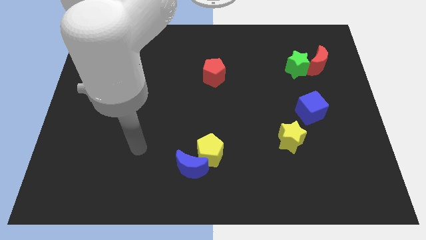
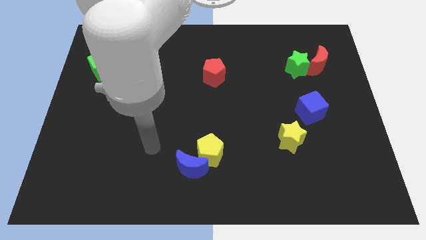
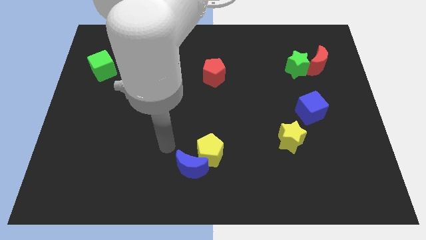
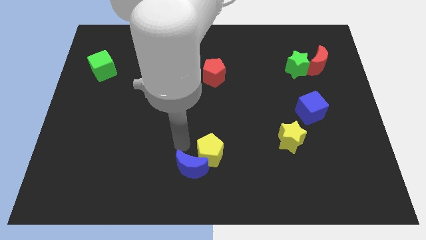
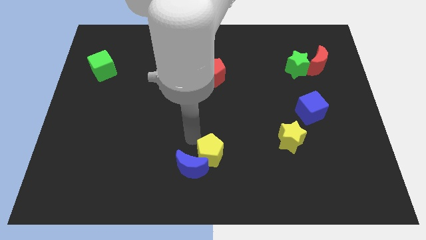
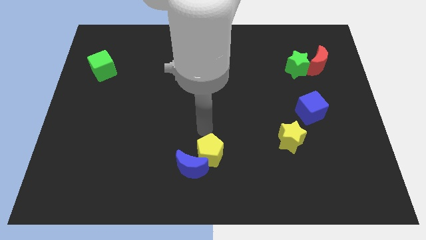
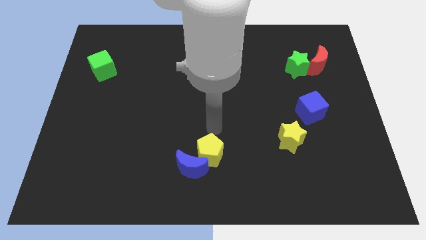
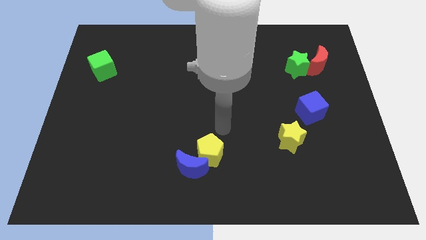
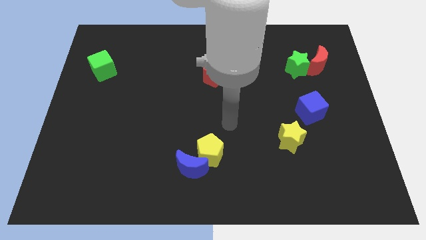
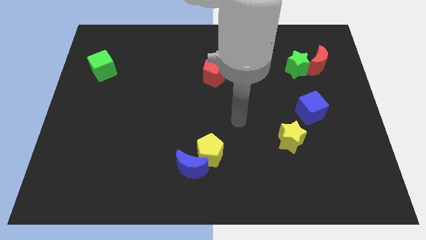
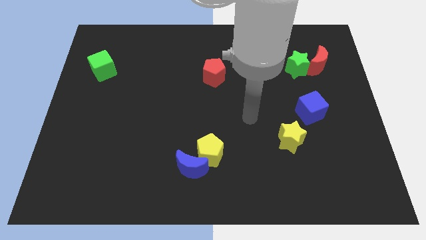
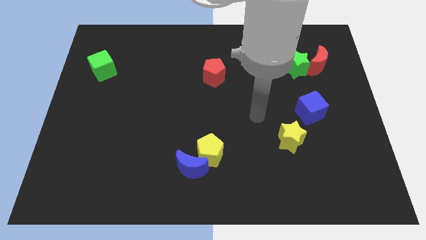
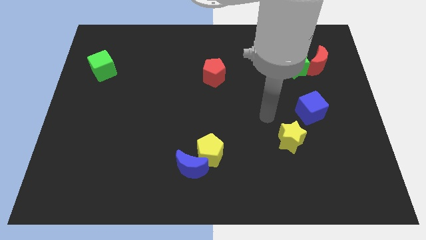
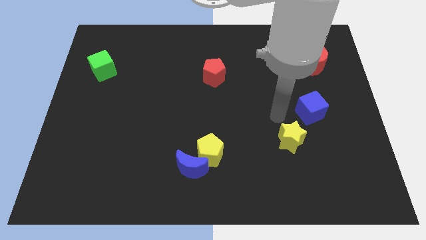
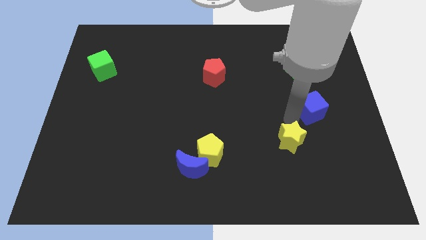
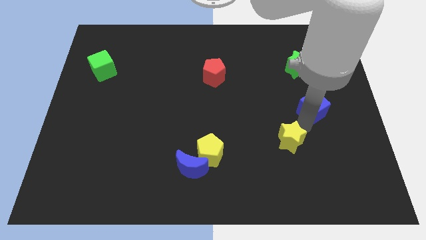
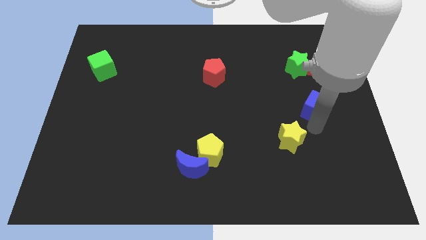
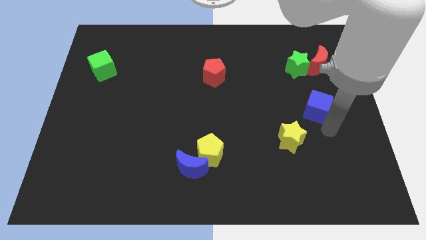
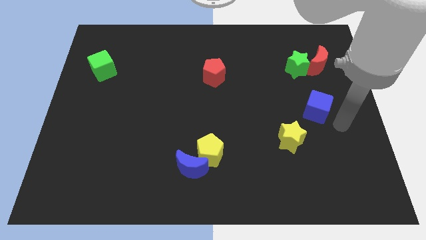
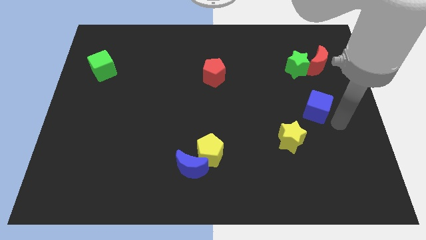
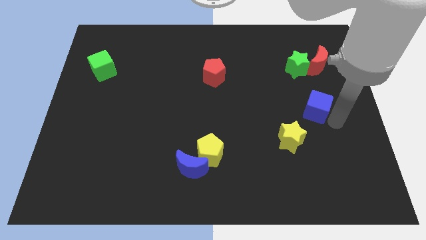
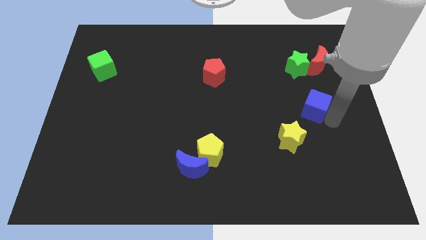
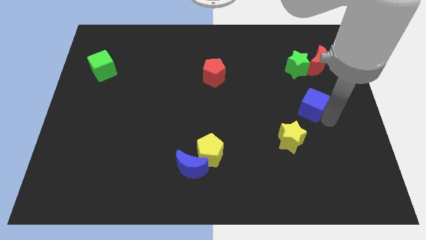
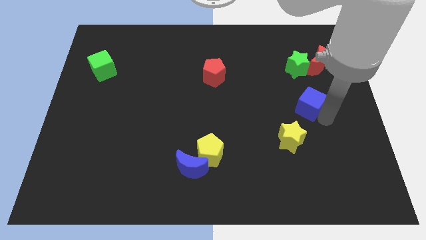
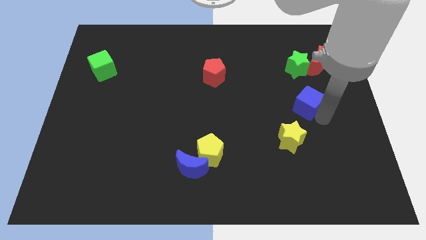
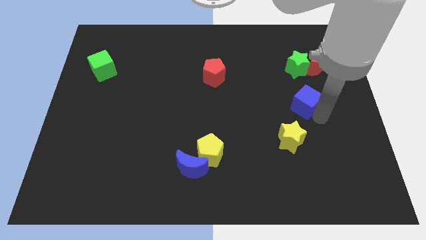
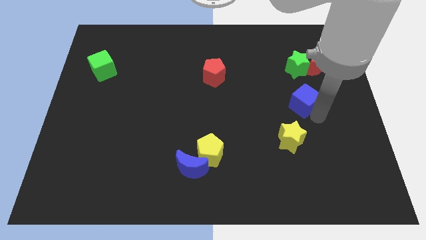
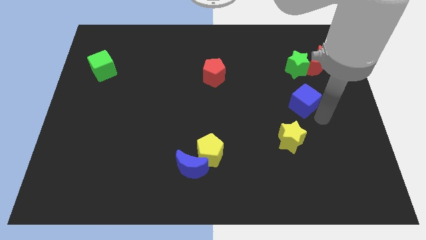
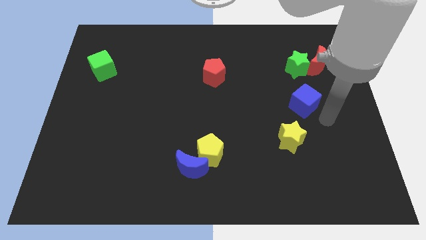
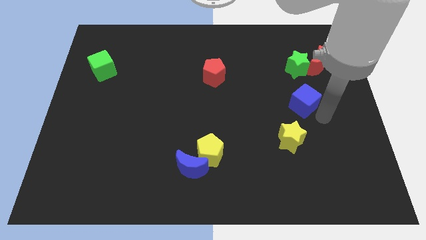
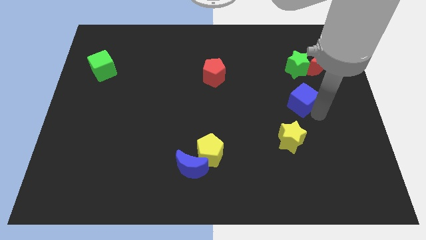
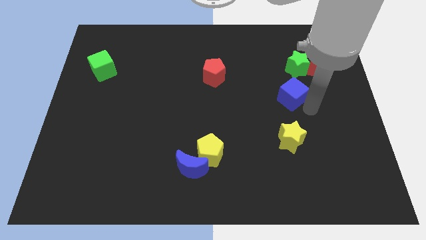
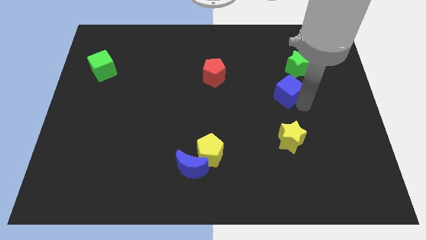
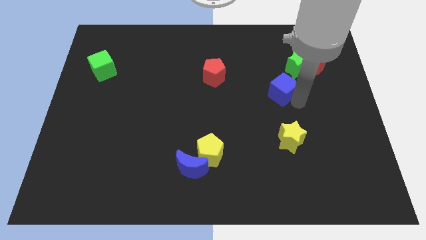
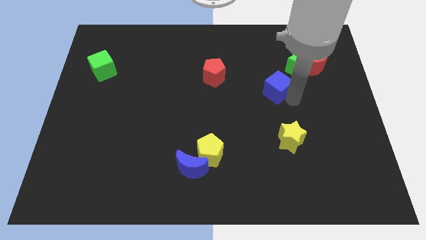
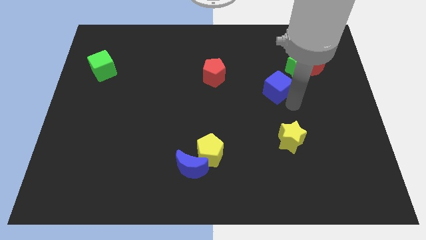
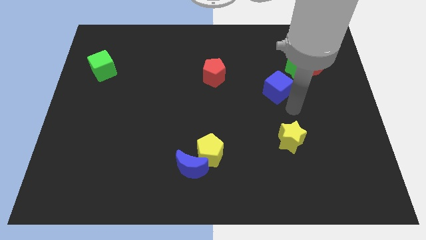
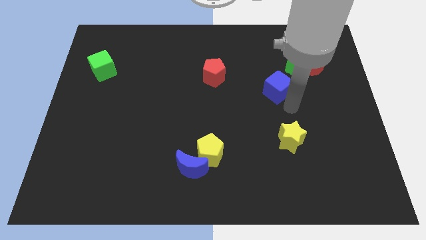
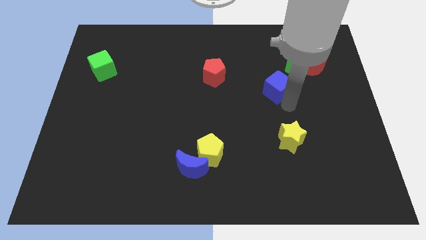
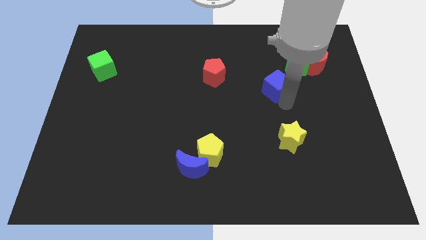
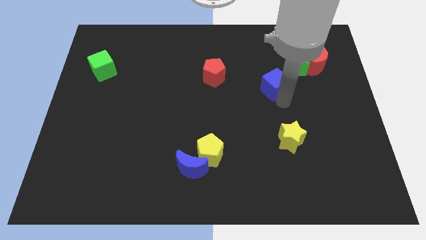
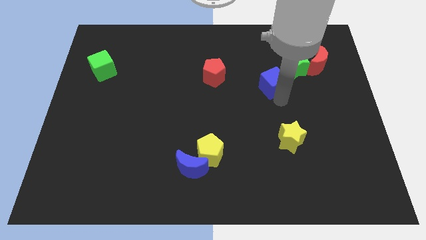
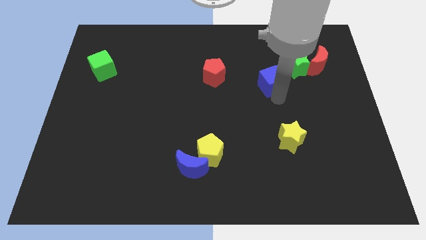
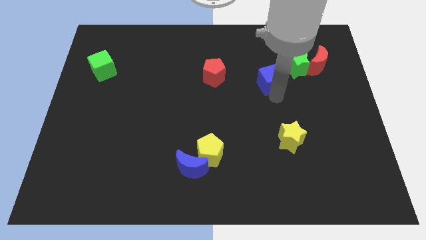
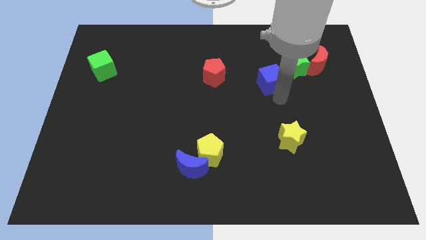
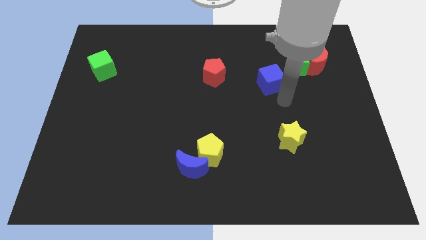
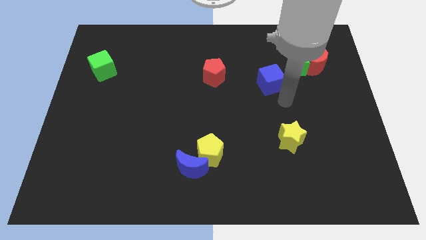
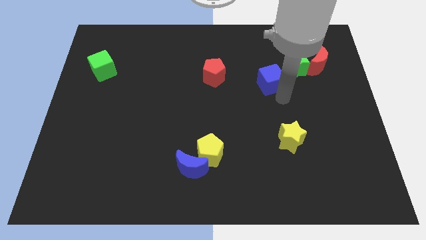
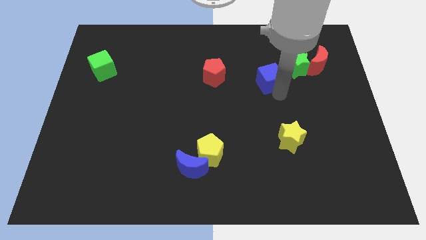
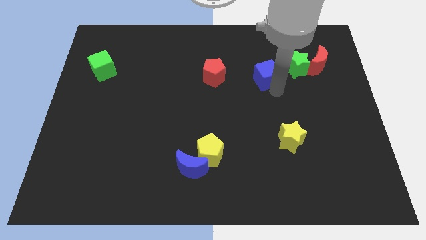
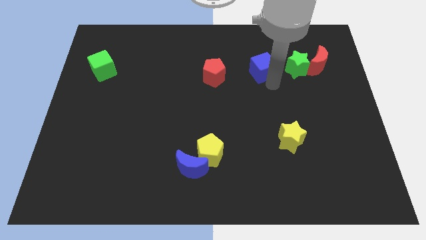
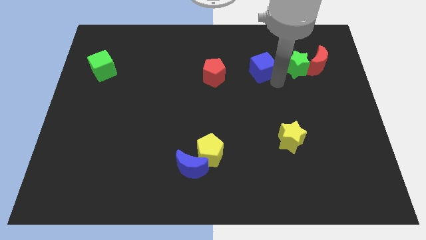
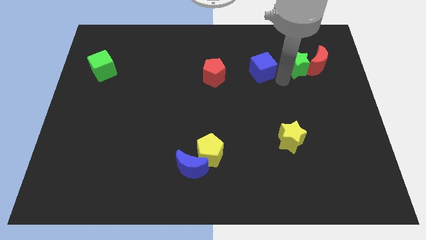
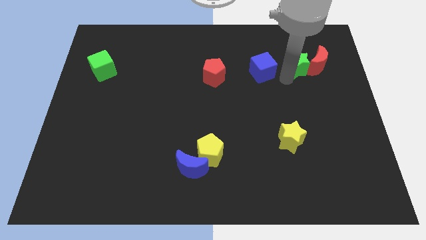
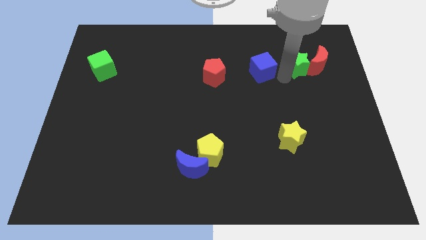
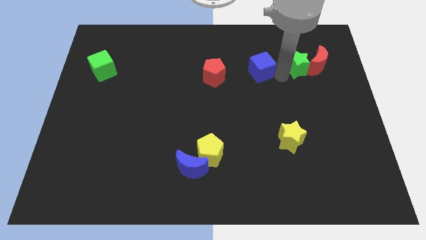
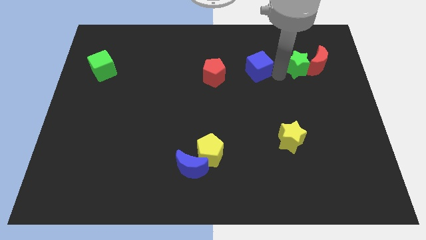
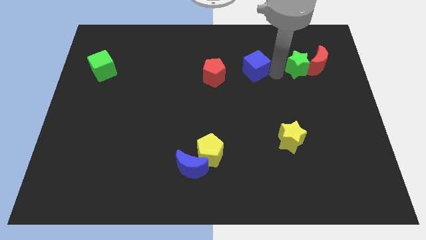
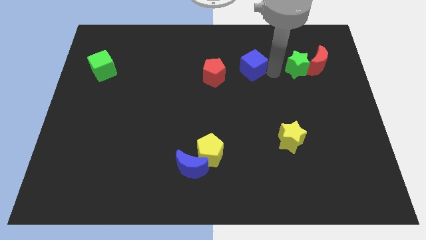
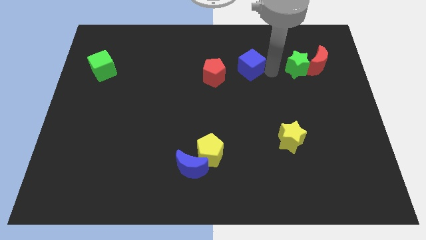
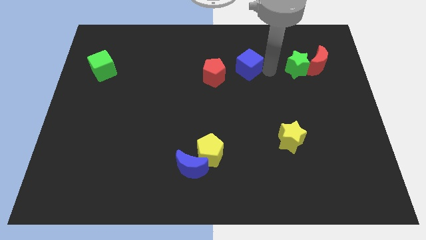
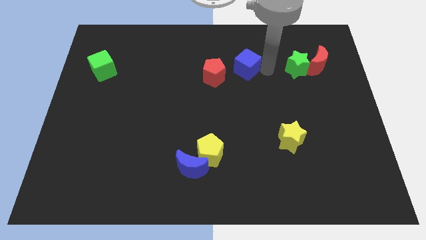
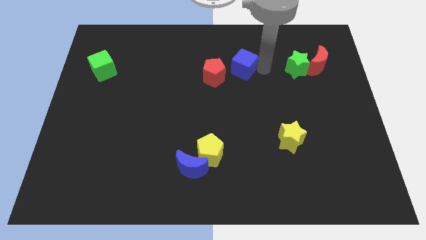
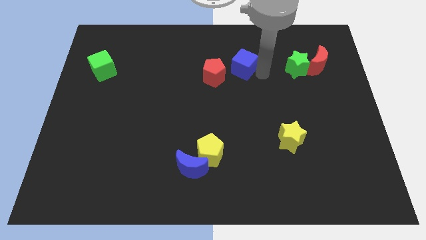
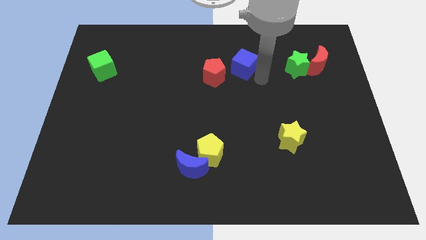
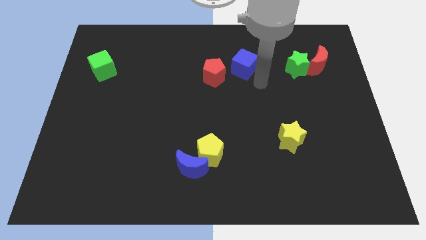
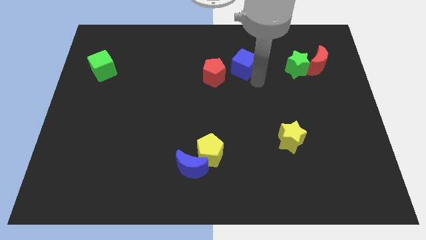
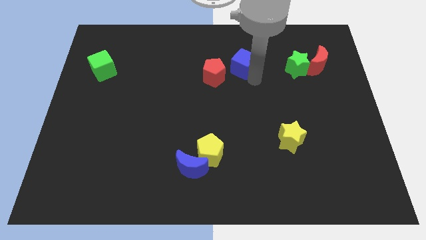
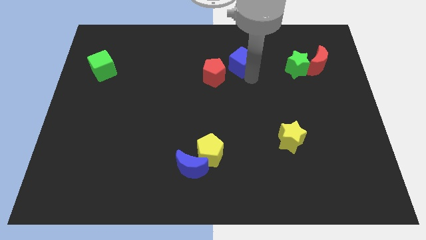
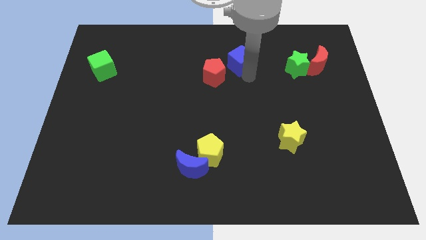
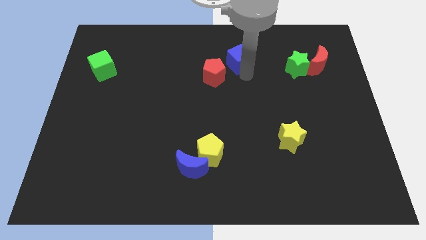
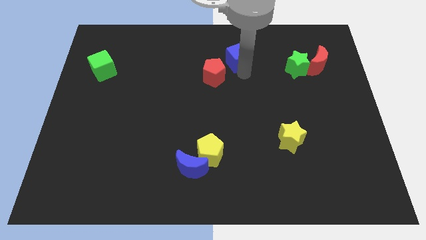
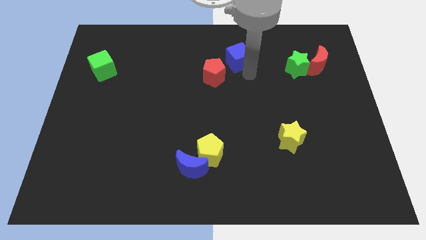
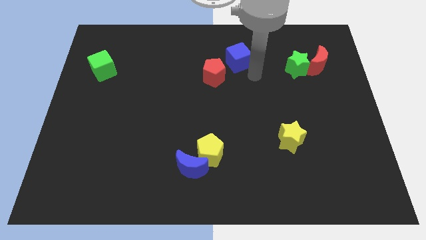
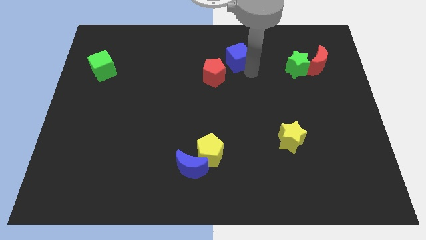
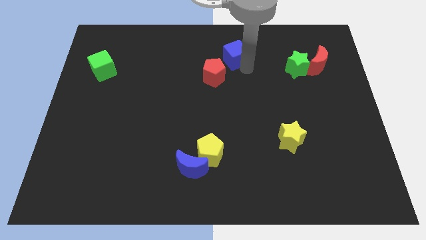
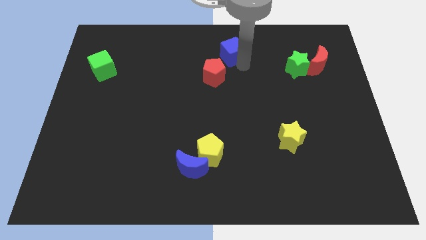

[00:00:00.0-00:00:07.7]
push the blue cube to the top
